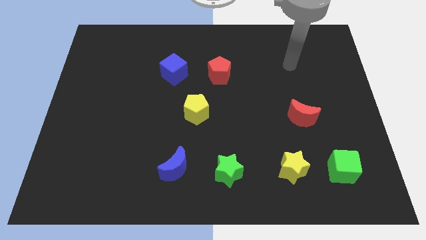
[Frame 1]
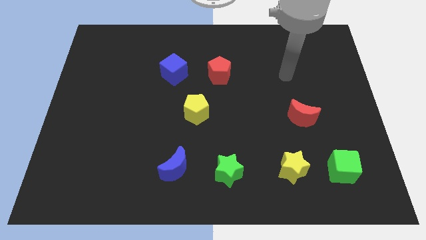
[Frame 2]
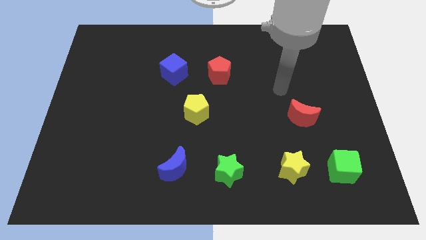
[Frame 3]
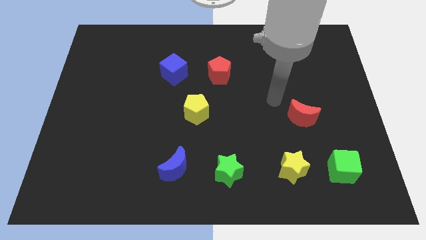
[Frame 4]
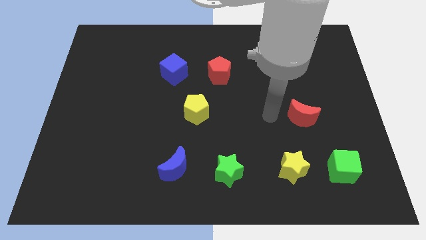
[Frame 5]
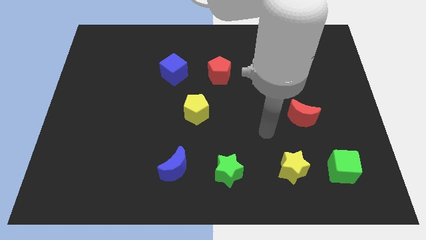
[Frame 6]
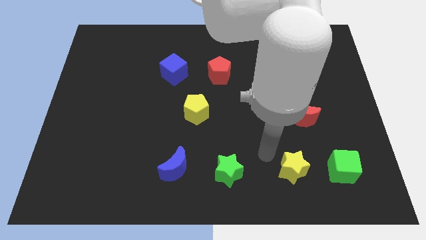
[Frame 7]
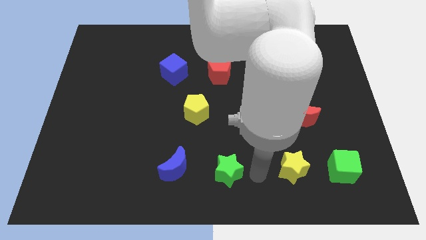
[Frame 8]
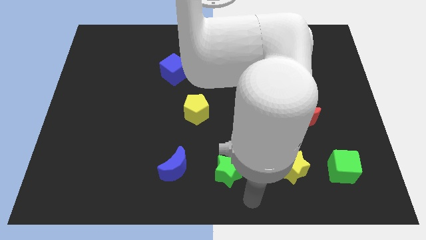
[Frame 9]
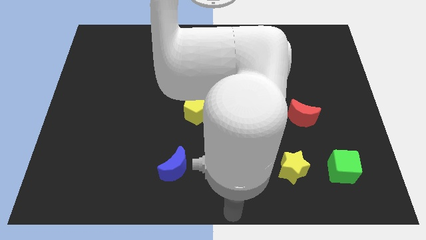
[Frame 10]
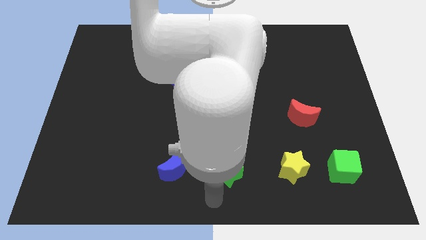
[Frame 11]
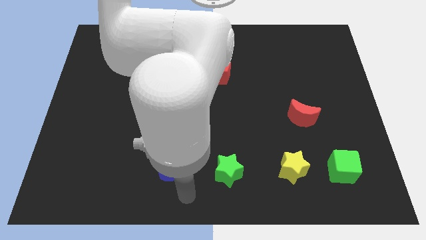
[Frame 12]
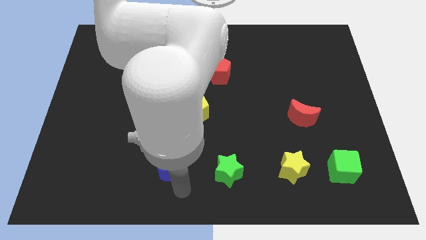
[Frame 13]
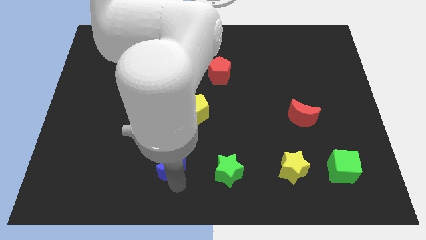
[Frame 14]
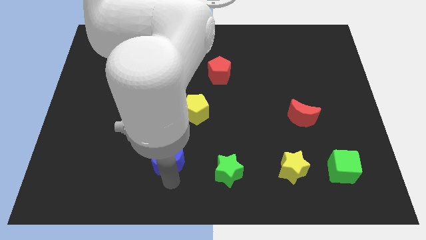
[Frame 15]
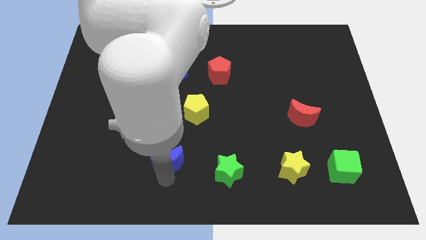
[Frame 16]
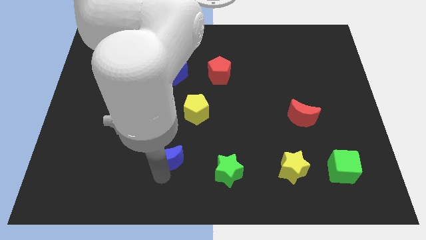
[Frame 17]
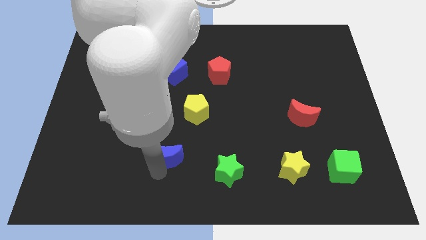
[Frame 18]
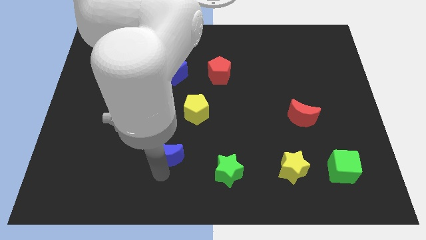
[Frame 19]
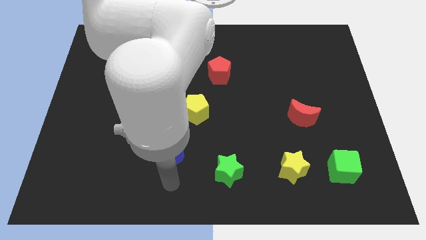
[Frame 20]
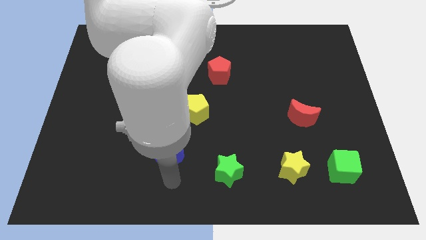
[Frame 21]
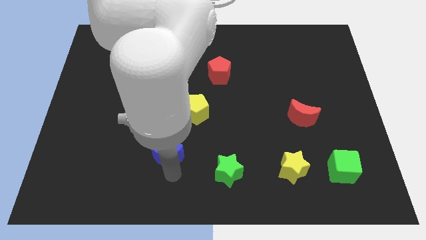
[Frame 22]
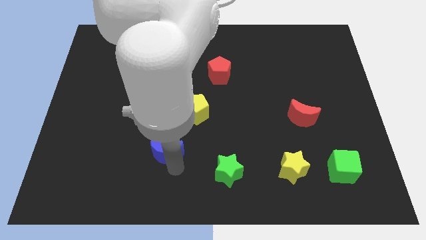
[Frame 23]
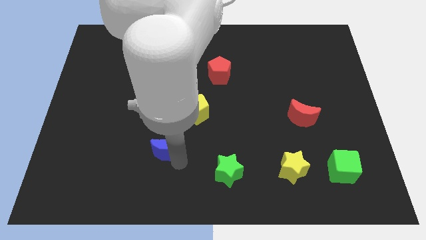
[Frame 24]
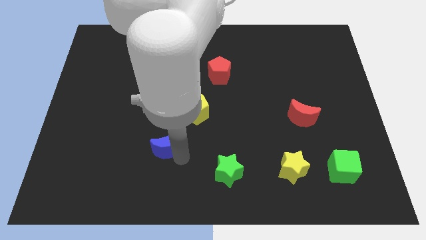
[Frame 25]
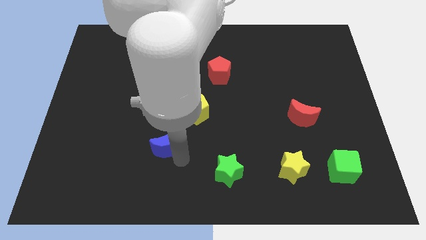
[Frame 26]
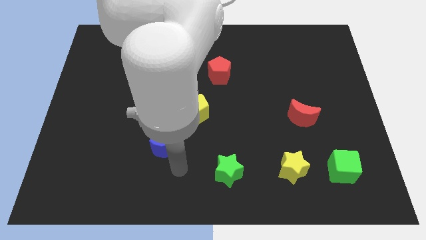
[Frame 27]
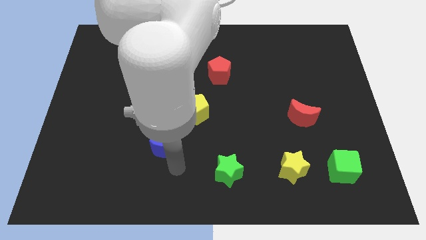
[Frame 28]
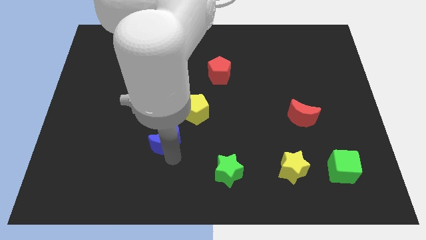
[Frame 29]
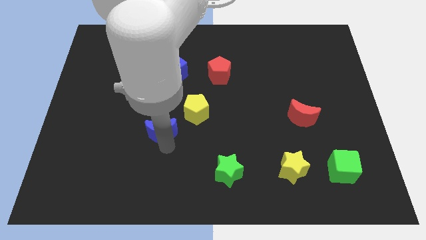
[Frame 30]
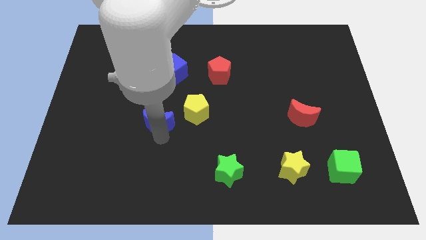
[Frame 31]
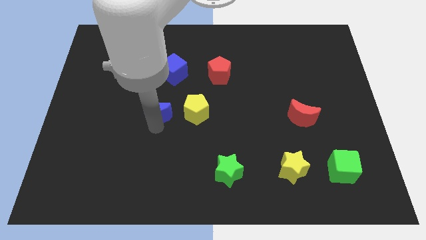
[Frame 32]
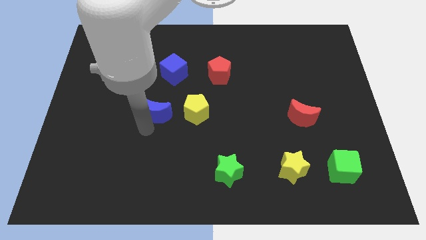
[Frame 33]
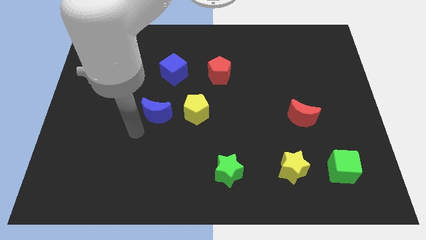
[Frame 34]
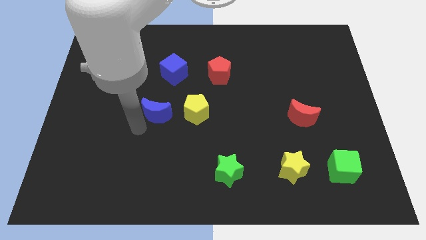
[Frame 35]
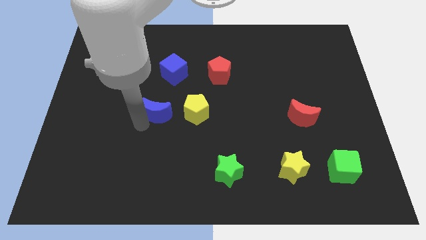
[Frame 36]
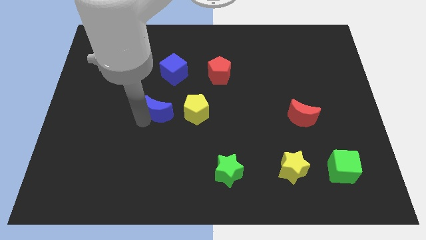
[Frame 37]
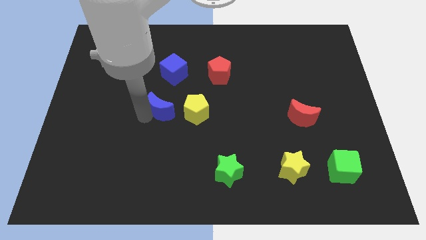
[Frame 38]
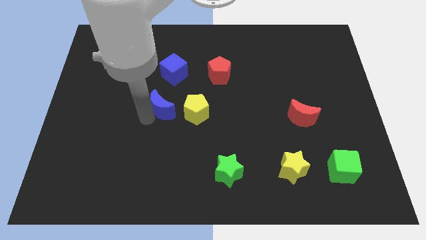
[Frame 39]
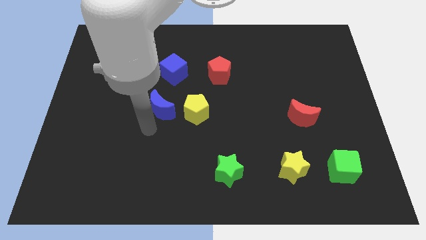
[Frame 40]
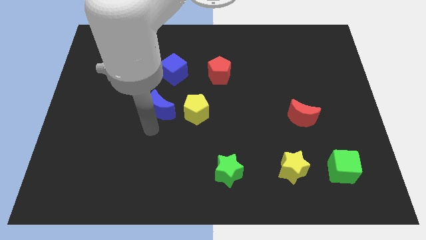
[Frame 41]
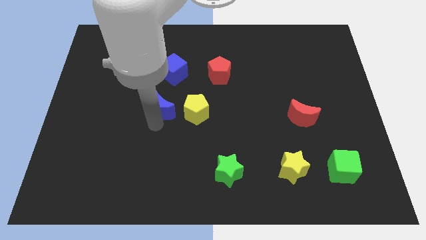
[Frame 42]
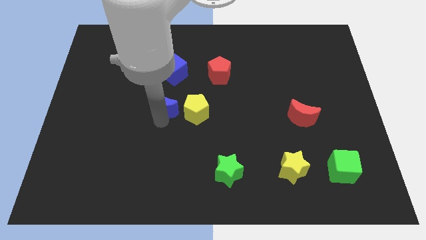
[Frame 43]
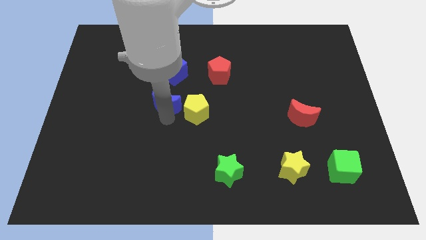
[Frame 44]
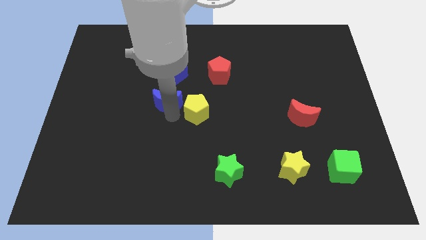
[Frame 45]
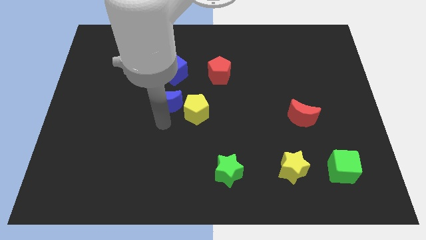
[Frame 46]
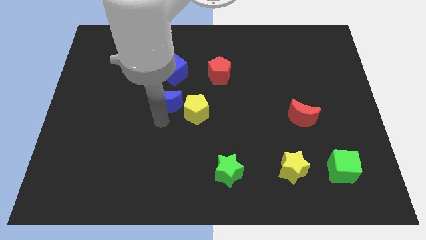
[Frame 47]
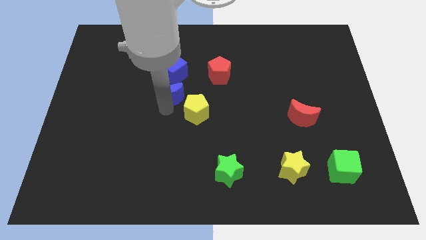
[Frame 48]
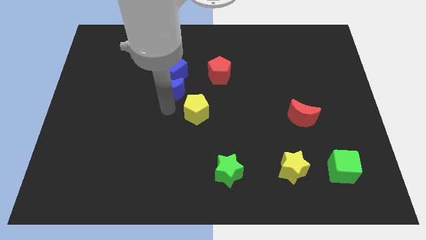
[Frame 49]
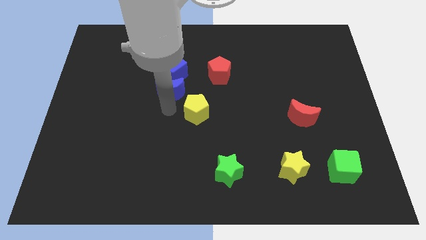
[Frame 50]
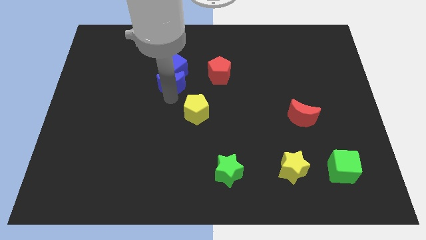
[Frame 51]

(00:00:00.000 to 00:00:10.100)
push the blue moon to the blue cube

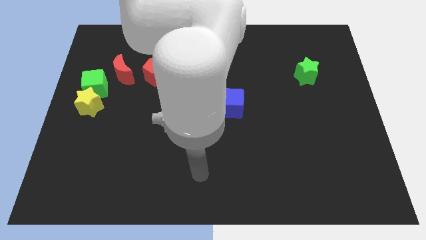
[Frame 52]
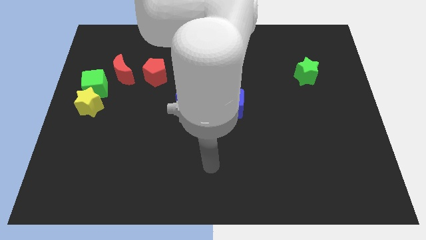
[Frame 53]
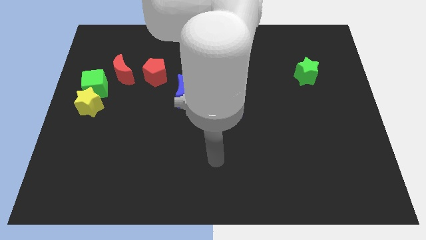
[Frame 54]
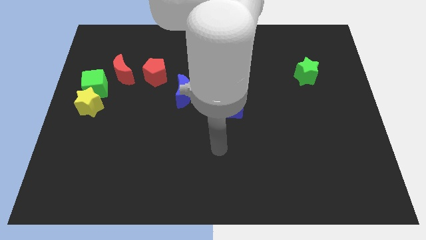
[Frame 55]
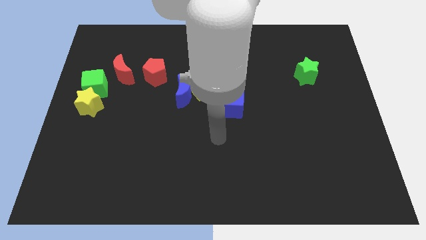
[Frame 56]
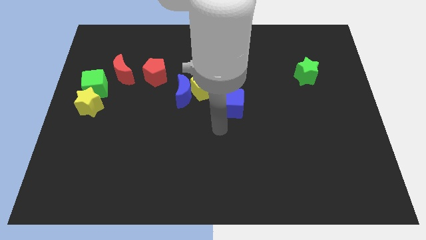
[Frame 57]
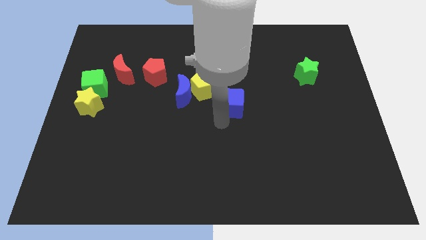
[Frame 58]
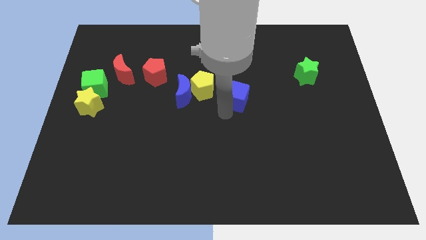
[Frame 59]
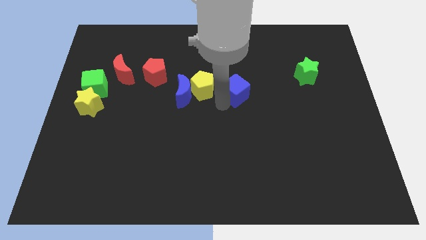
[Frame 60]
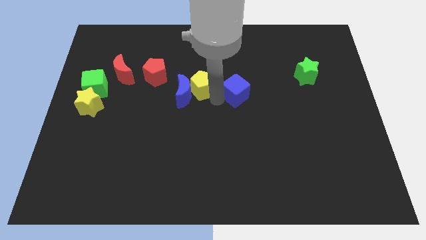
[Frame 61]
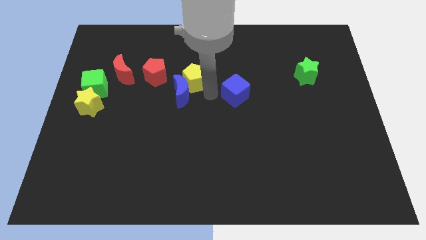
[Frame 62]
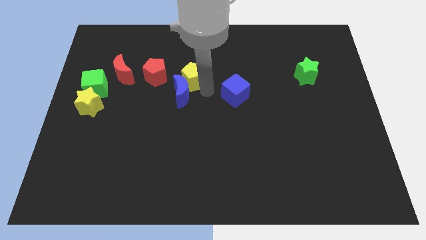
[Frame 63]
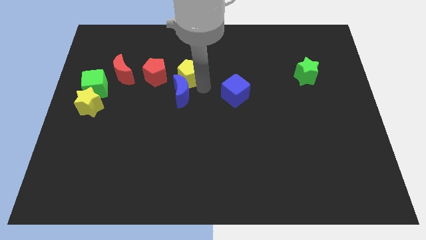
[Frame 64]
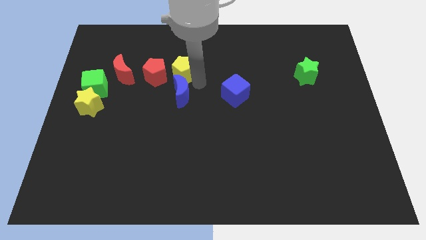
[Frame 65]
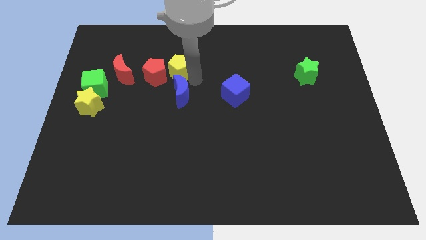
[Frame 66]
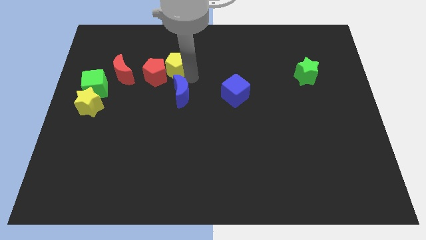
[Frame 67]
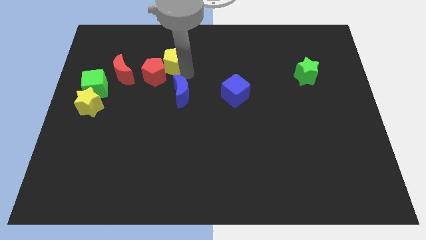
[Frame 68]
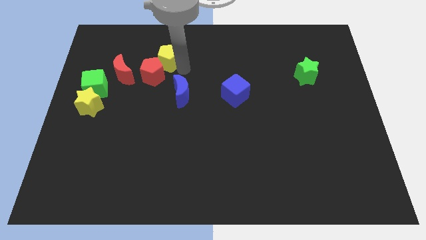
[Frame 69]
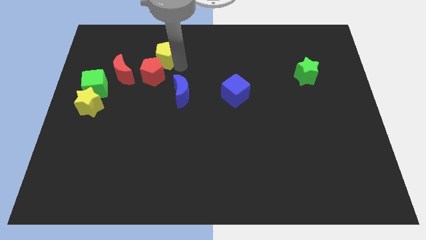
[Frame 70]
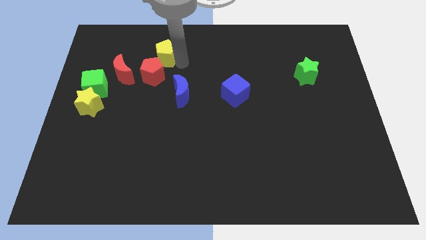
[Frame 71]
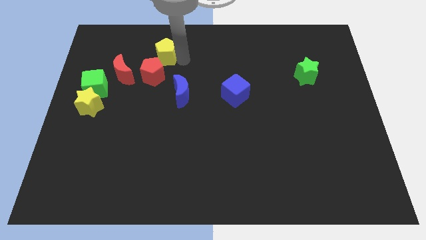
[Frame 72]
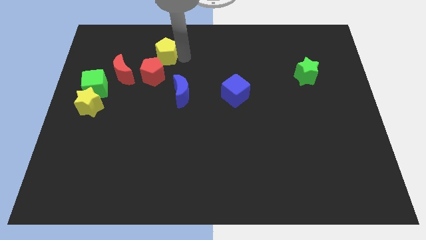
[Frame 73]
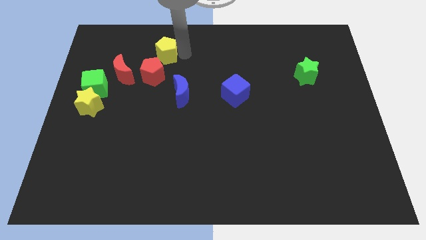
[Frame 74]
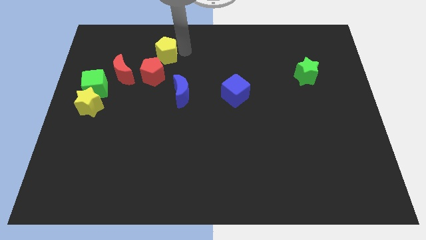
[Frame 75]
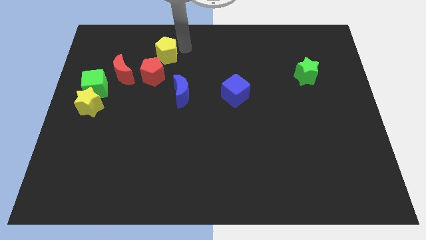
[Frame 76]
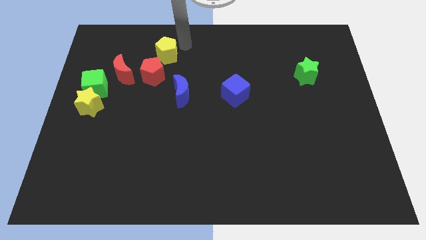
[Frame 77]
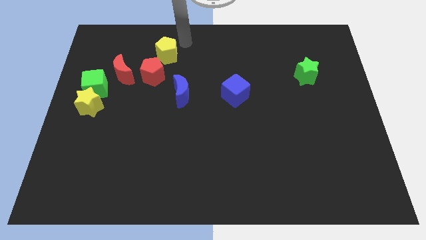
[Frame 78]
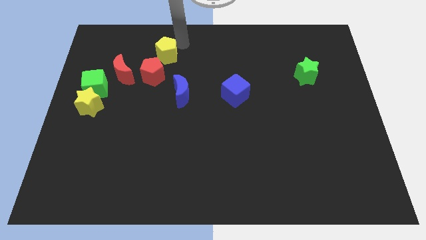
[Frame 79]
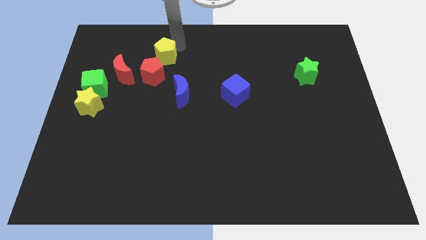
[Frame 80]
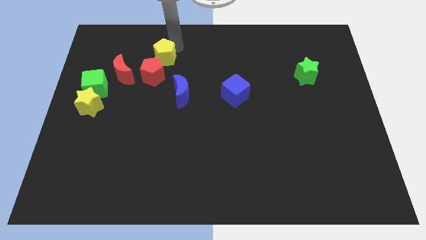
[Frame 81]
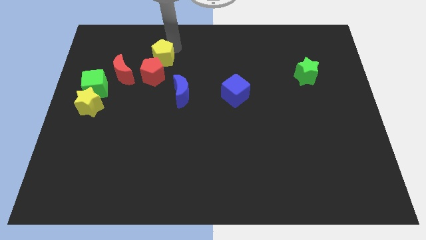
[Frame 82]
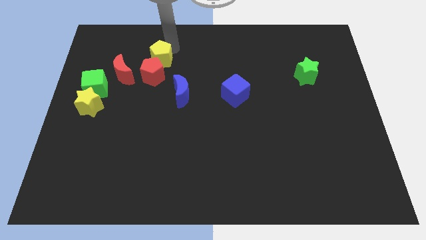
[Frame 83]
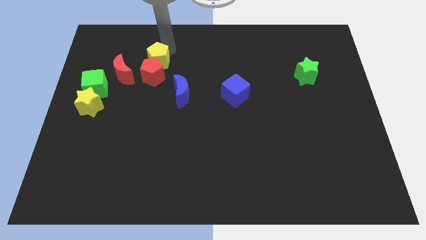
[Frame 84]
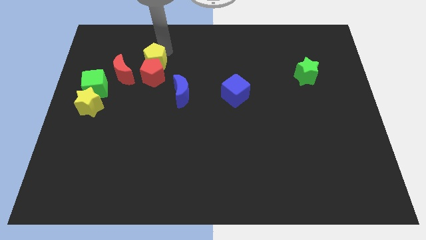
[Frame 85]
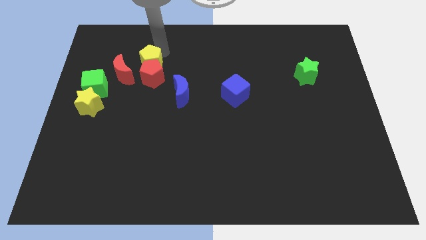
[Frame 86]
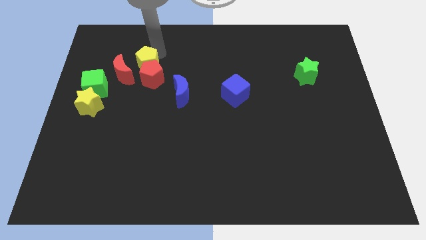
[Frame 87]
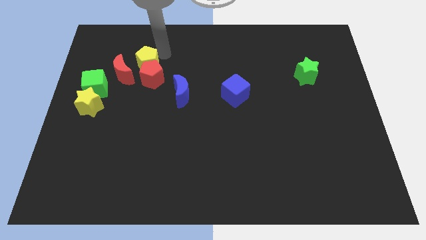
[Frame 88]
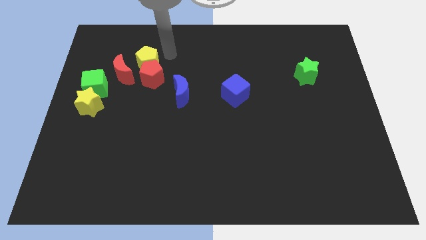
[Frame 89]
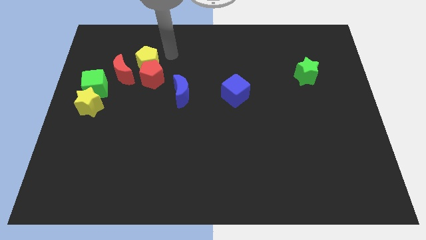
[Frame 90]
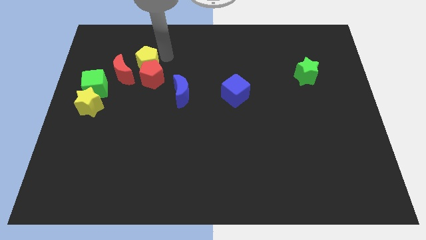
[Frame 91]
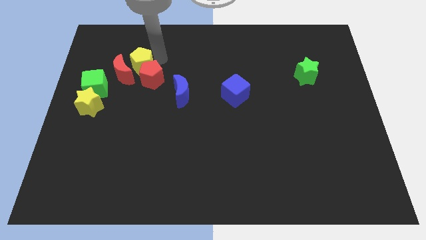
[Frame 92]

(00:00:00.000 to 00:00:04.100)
push the yellow pentagon to the red moon
